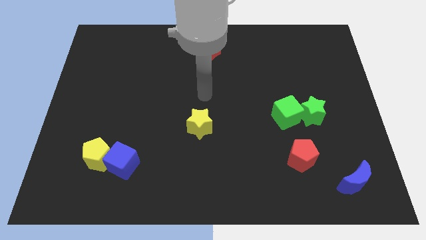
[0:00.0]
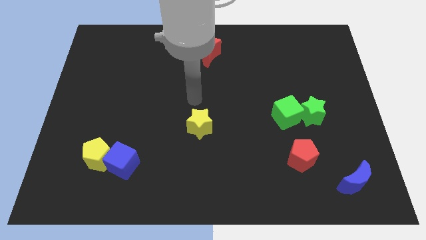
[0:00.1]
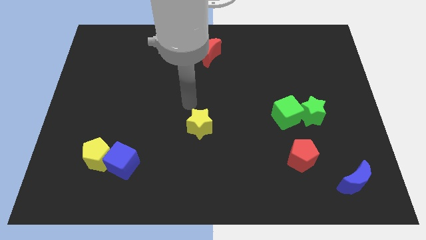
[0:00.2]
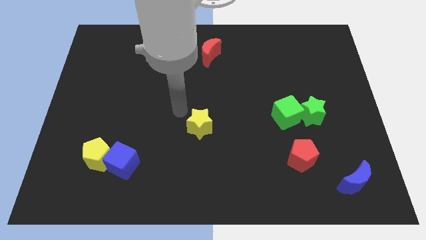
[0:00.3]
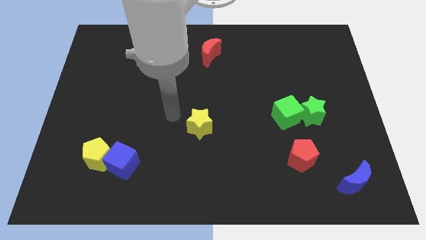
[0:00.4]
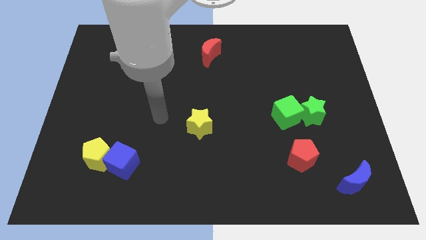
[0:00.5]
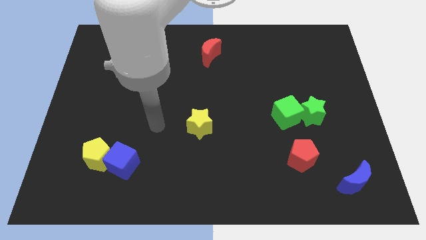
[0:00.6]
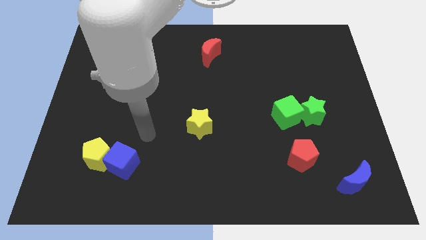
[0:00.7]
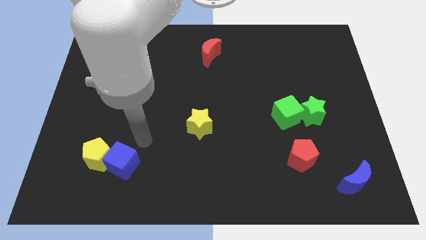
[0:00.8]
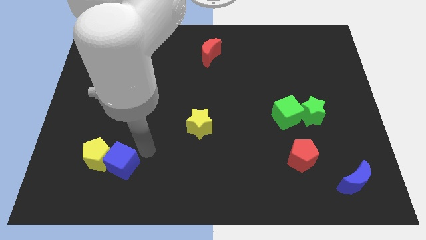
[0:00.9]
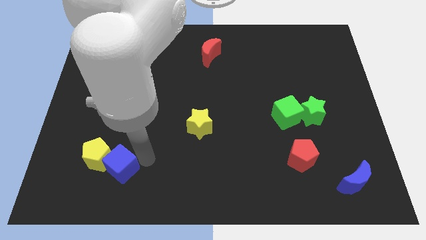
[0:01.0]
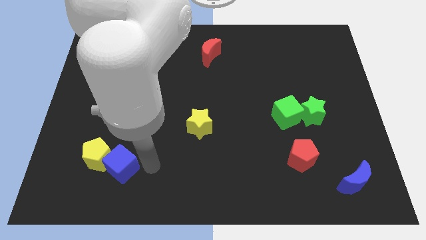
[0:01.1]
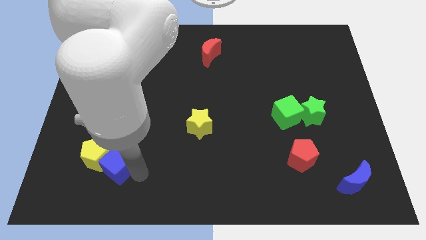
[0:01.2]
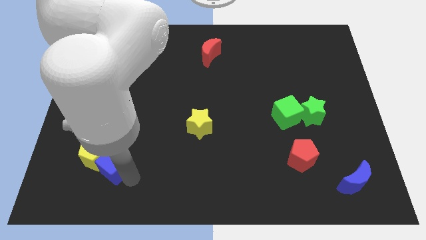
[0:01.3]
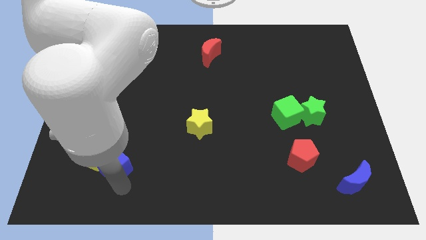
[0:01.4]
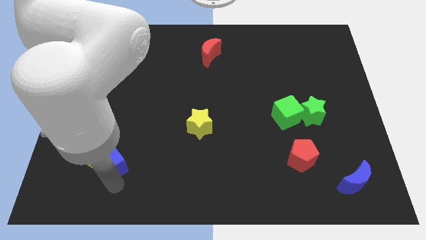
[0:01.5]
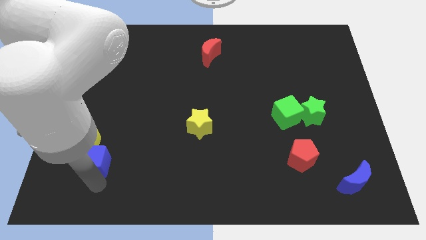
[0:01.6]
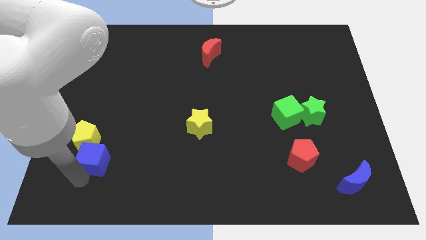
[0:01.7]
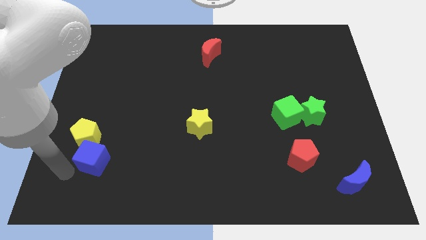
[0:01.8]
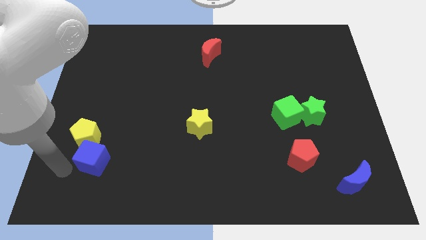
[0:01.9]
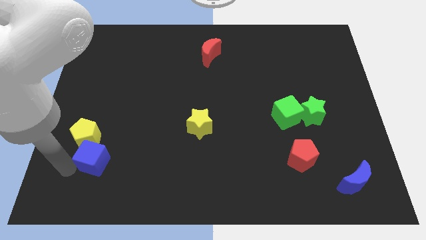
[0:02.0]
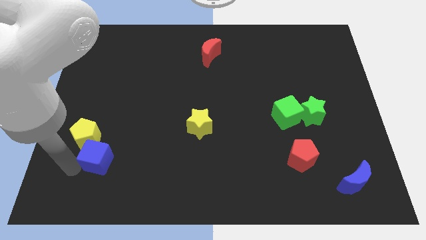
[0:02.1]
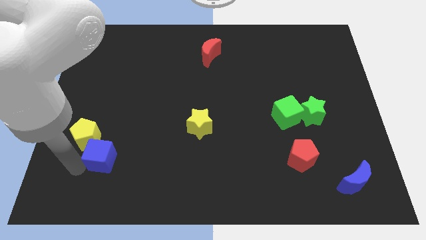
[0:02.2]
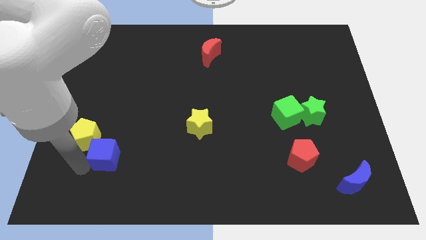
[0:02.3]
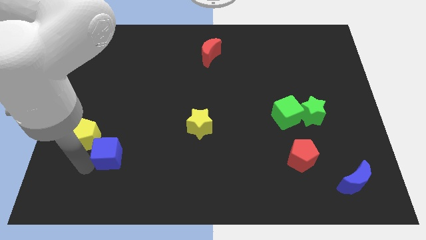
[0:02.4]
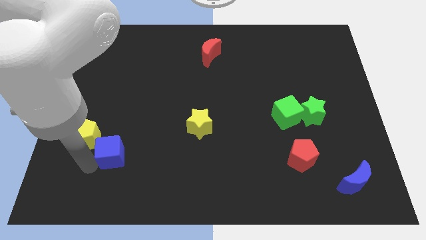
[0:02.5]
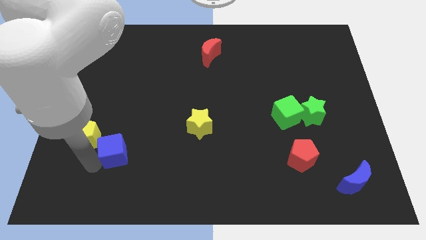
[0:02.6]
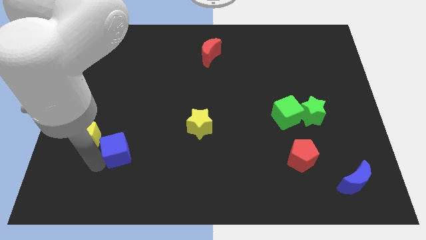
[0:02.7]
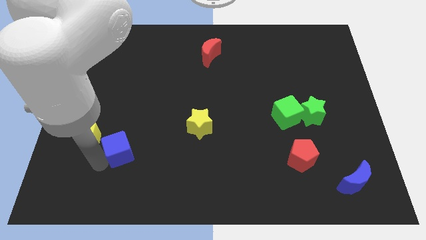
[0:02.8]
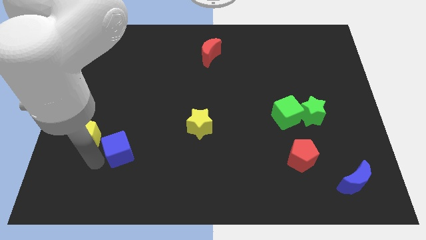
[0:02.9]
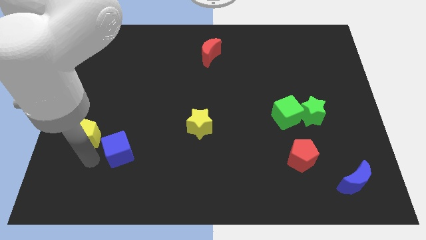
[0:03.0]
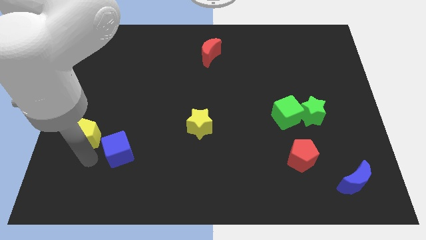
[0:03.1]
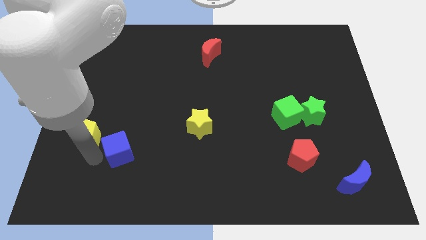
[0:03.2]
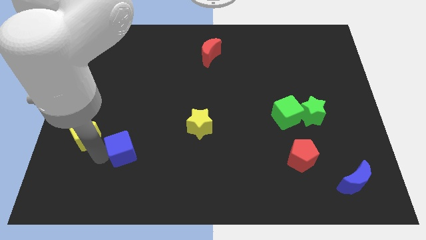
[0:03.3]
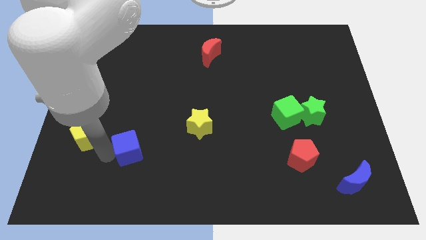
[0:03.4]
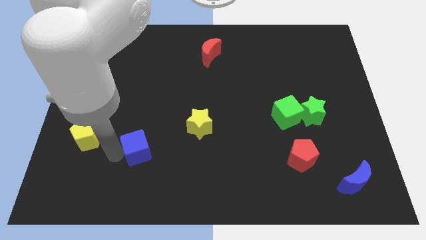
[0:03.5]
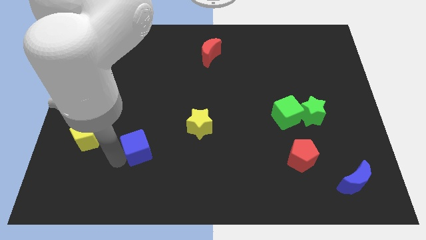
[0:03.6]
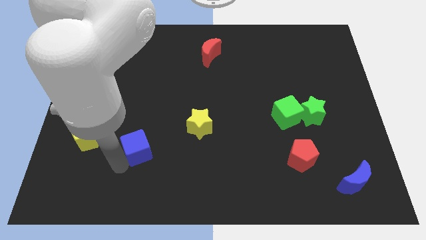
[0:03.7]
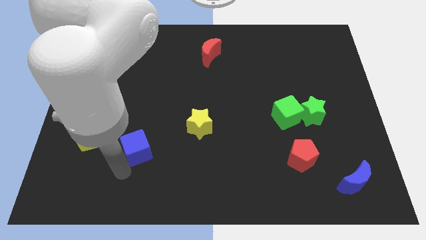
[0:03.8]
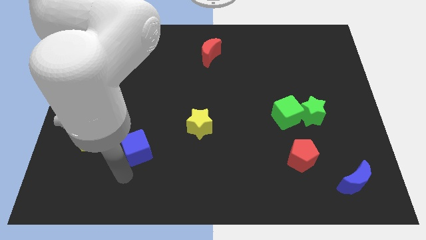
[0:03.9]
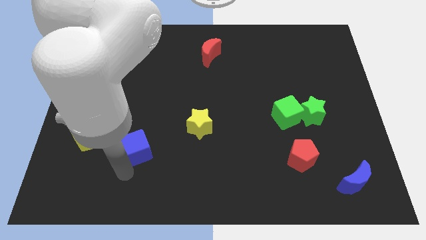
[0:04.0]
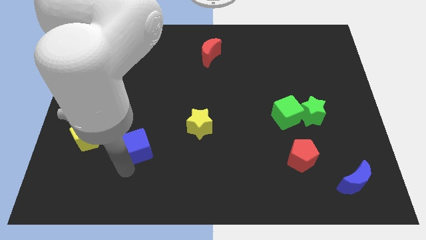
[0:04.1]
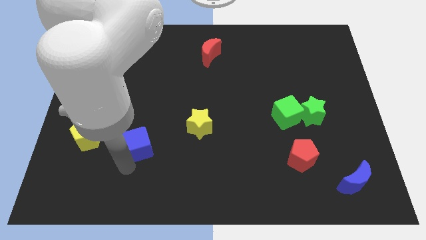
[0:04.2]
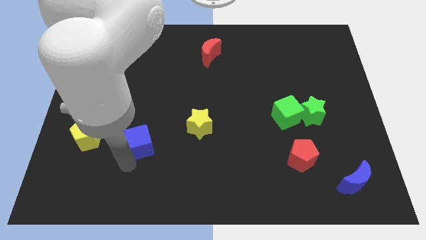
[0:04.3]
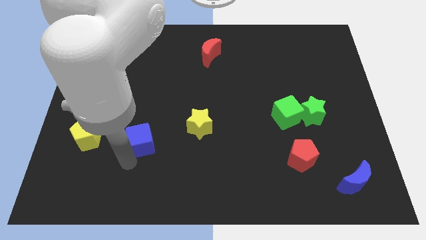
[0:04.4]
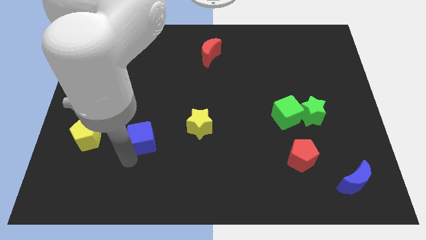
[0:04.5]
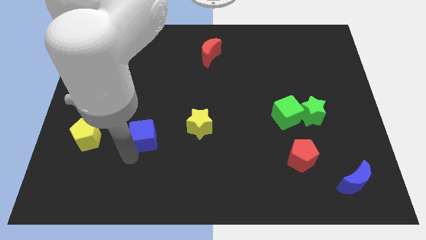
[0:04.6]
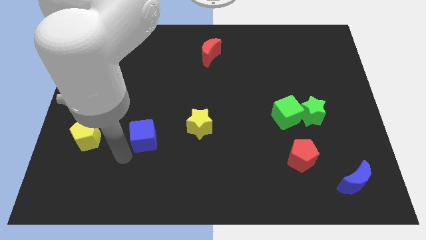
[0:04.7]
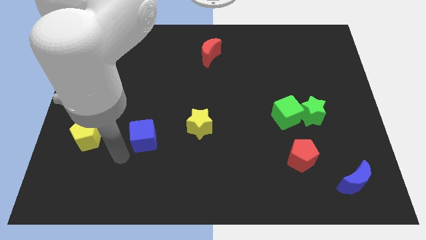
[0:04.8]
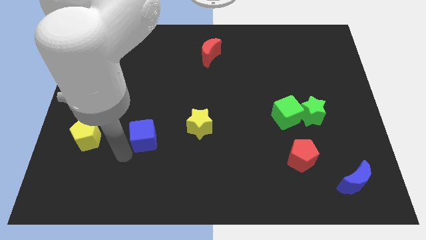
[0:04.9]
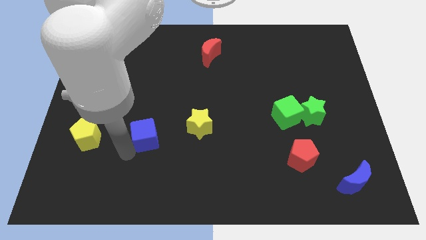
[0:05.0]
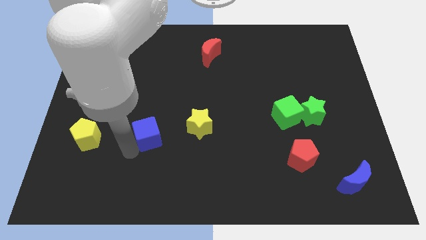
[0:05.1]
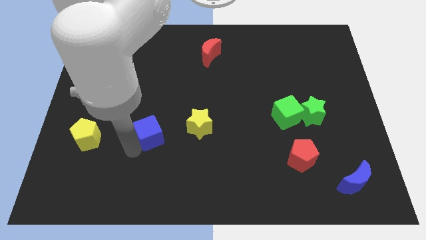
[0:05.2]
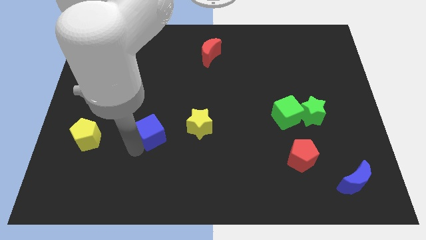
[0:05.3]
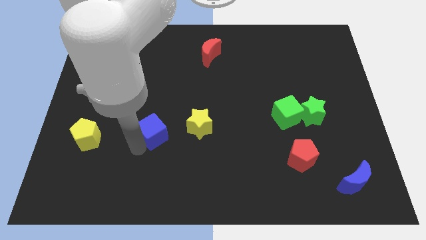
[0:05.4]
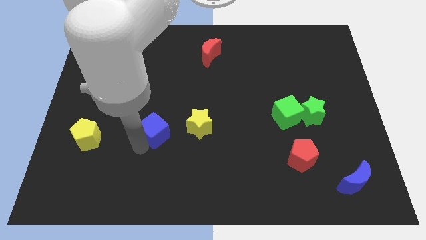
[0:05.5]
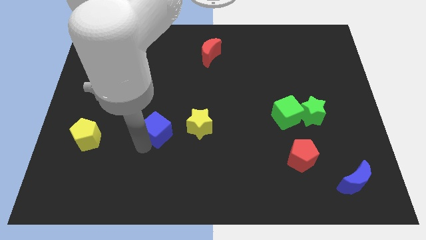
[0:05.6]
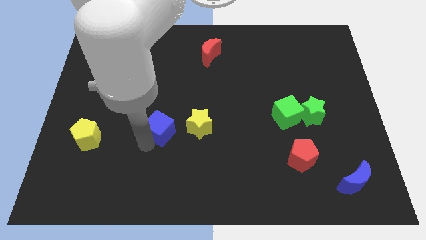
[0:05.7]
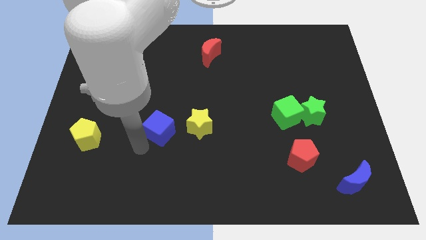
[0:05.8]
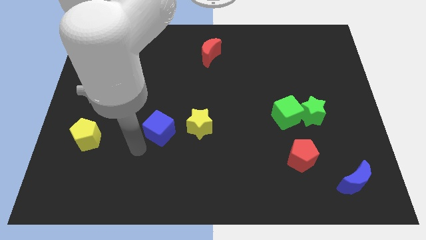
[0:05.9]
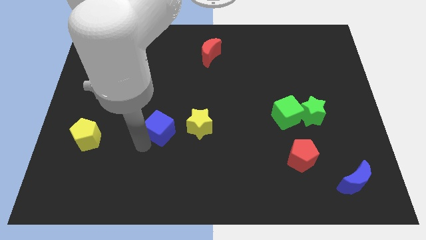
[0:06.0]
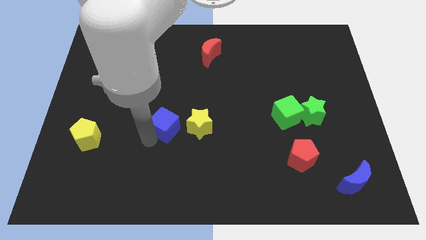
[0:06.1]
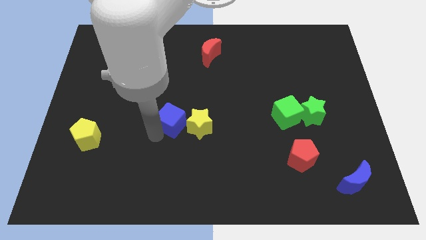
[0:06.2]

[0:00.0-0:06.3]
push the blue cube to the center

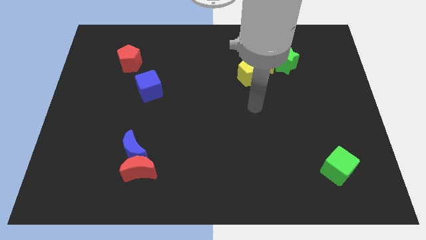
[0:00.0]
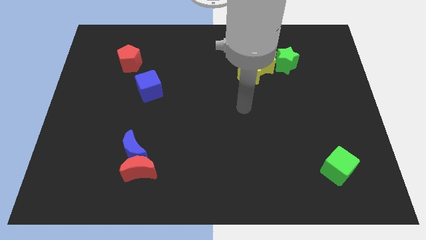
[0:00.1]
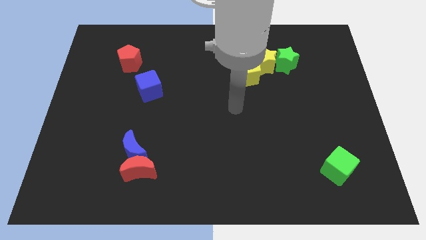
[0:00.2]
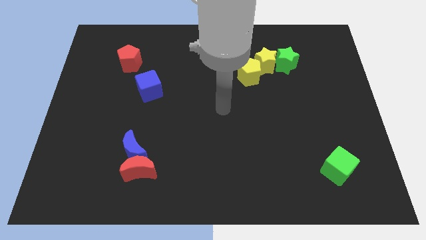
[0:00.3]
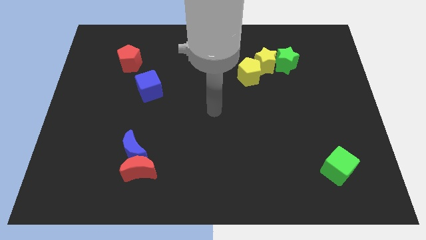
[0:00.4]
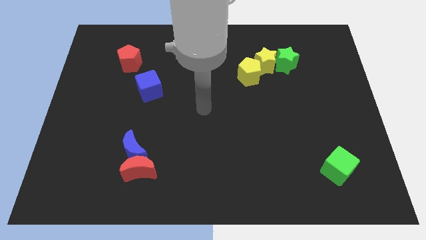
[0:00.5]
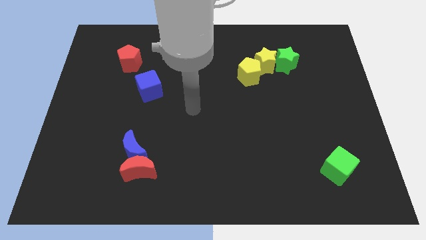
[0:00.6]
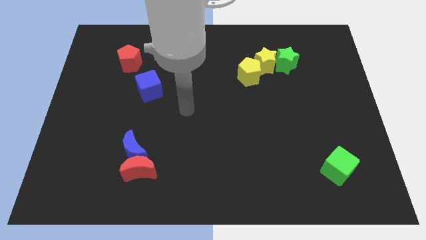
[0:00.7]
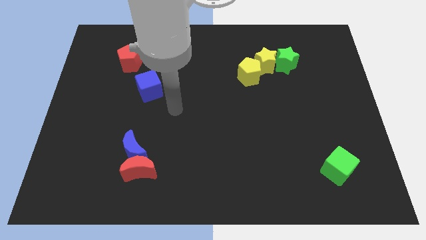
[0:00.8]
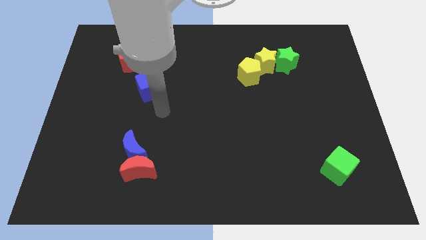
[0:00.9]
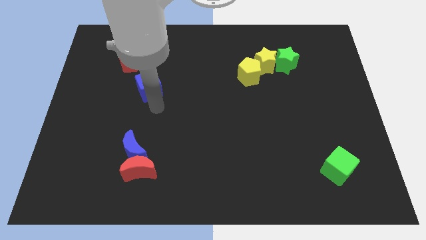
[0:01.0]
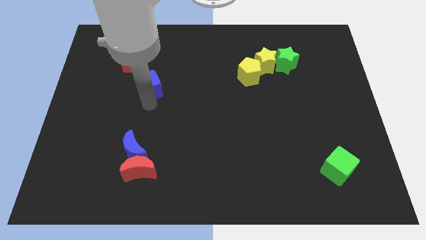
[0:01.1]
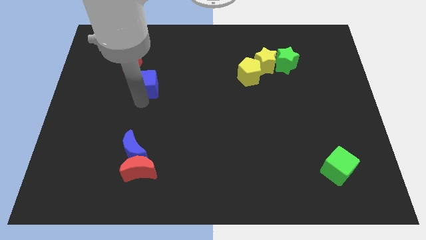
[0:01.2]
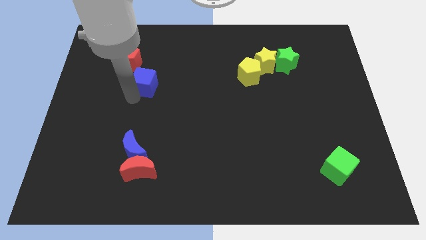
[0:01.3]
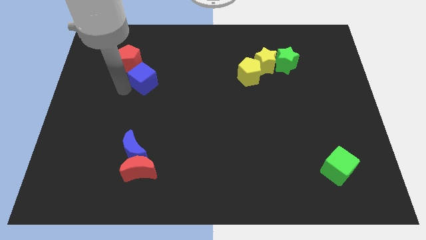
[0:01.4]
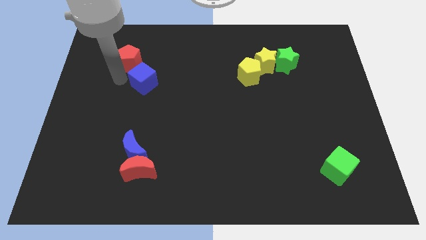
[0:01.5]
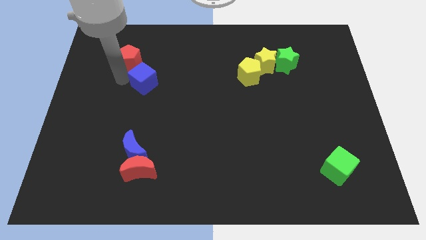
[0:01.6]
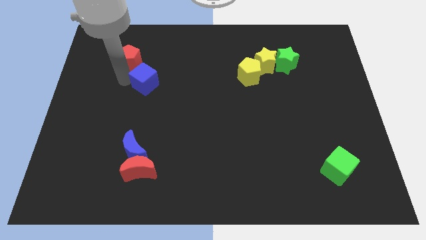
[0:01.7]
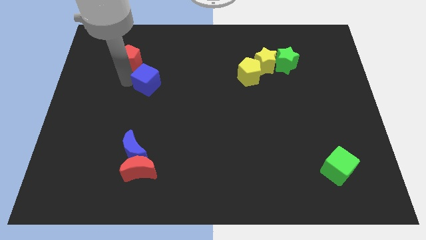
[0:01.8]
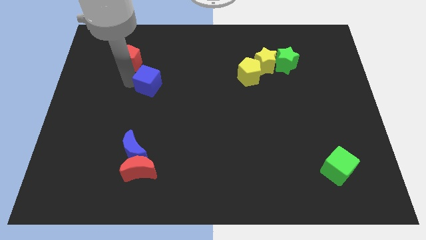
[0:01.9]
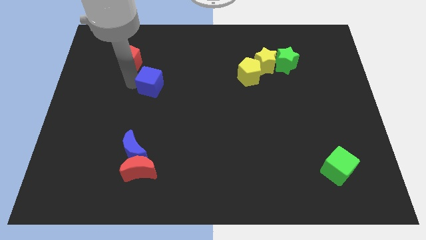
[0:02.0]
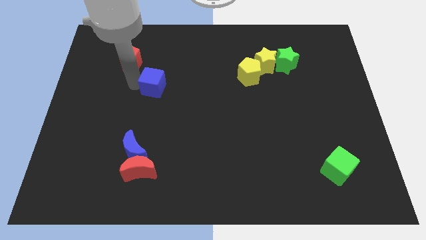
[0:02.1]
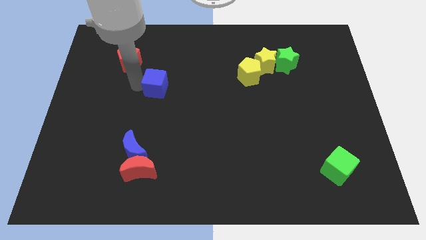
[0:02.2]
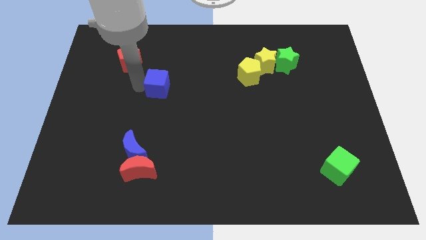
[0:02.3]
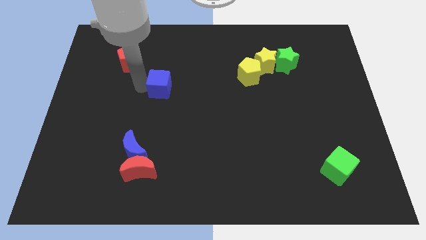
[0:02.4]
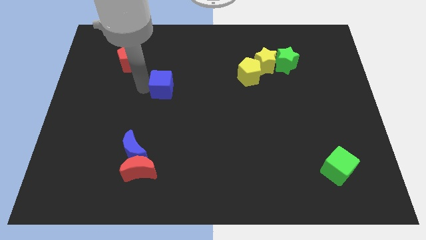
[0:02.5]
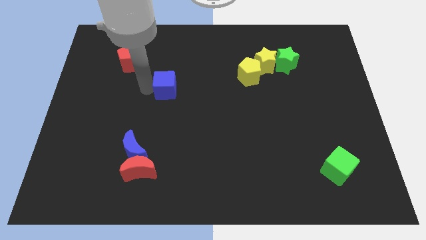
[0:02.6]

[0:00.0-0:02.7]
put the blue cube to the middle
